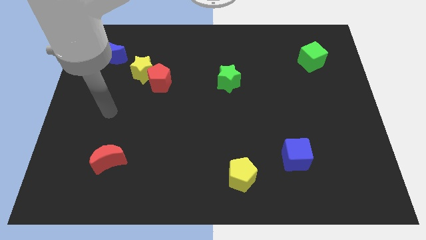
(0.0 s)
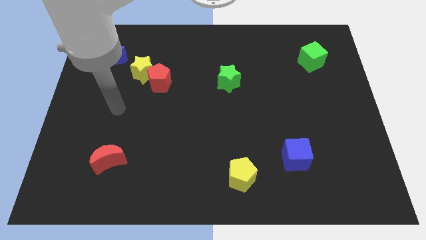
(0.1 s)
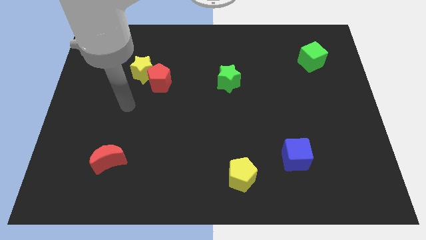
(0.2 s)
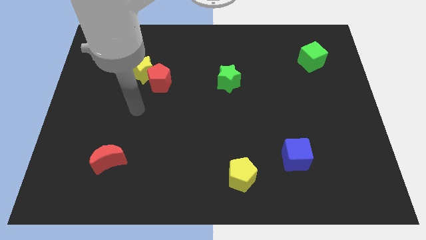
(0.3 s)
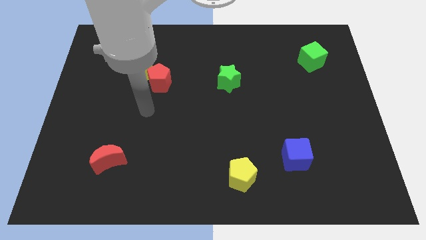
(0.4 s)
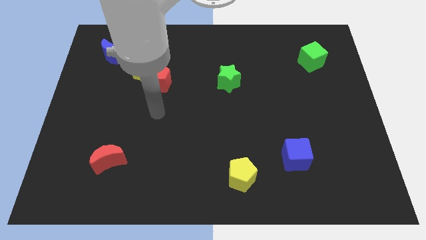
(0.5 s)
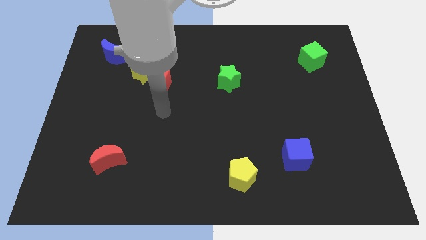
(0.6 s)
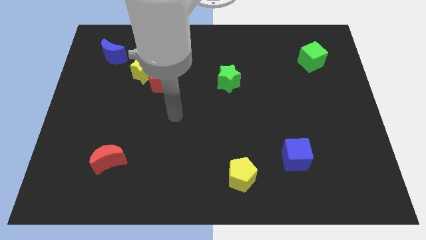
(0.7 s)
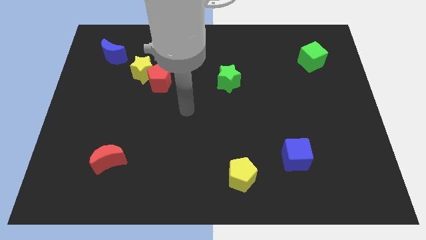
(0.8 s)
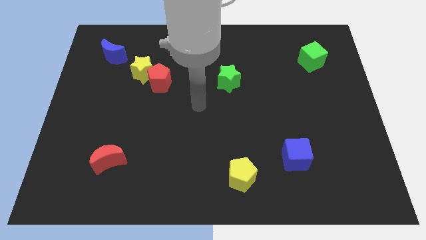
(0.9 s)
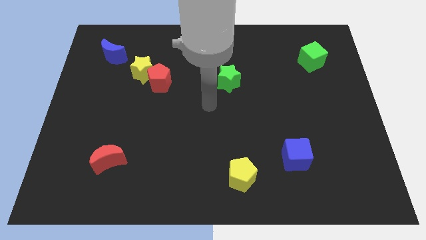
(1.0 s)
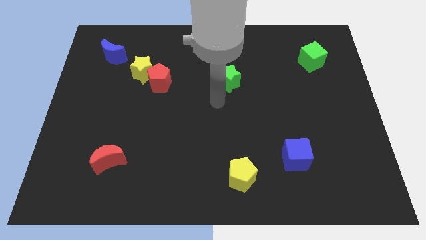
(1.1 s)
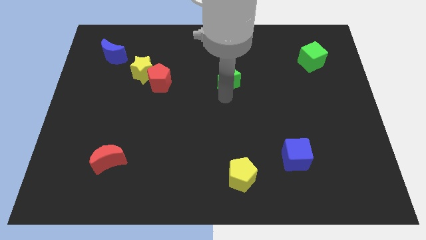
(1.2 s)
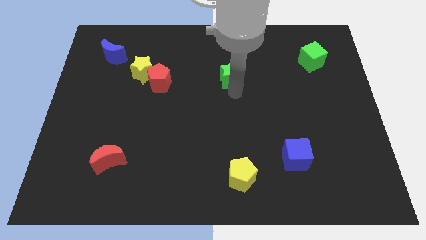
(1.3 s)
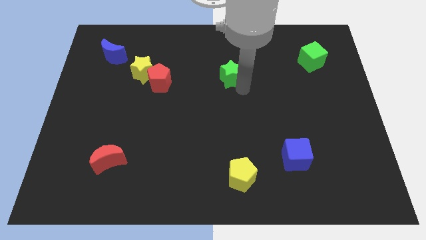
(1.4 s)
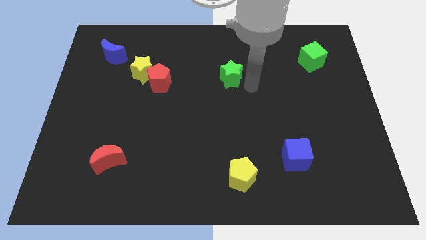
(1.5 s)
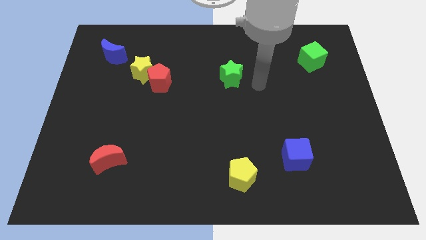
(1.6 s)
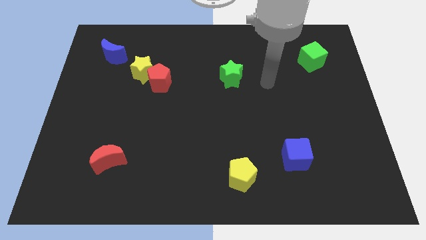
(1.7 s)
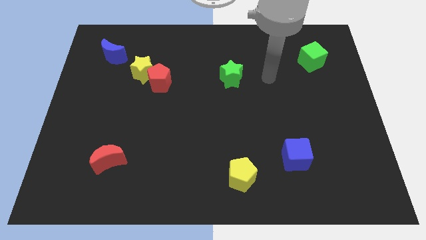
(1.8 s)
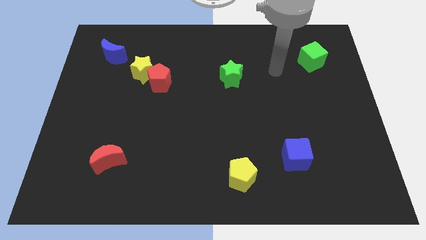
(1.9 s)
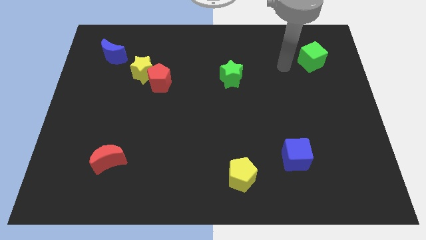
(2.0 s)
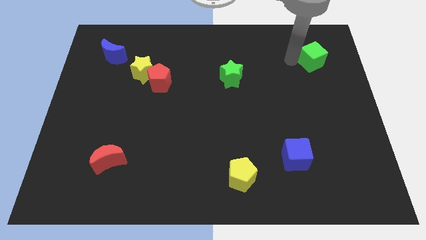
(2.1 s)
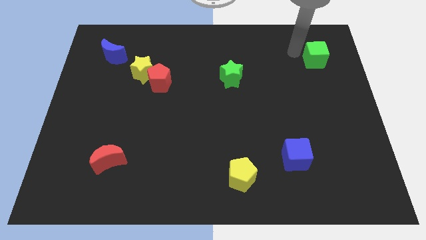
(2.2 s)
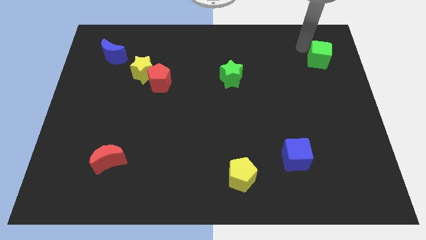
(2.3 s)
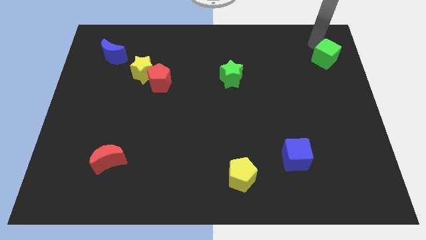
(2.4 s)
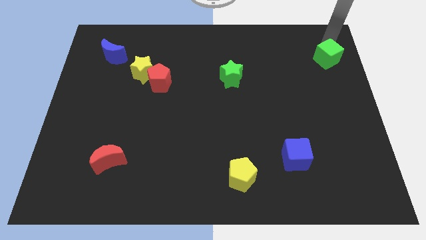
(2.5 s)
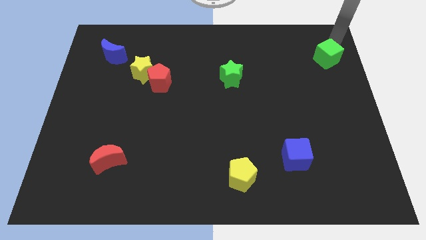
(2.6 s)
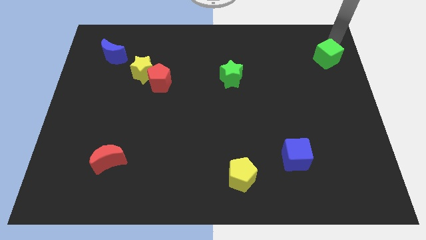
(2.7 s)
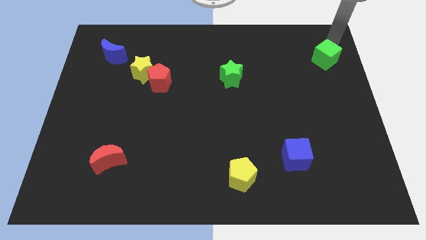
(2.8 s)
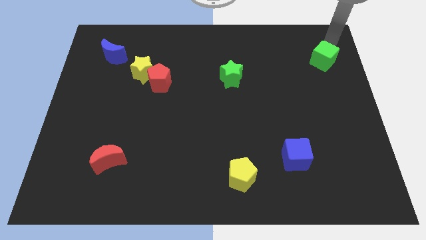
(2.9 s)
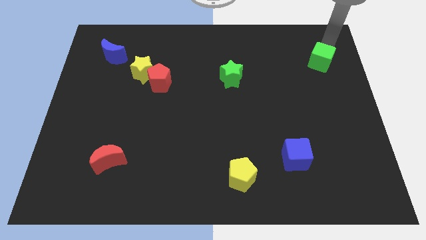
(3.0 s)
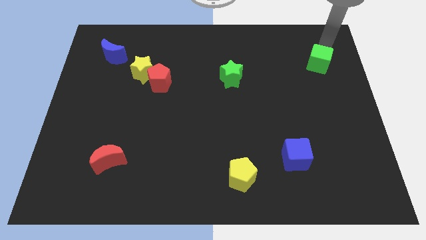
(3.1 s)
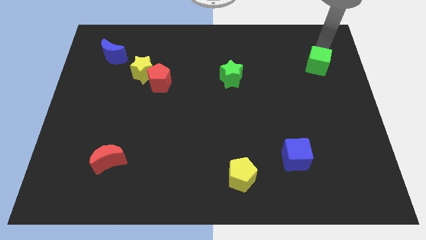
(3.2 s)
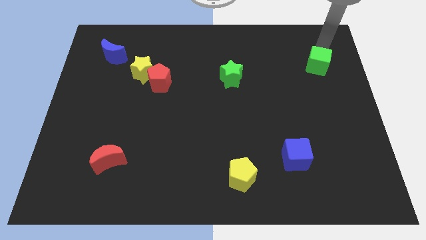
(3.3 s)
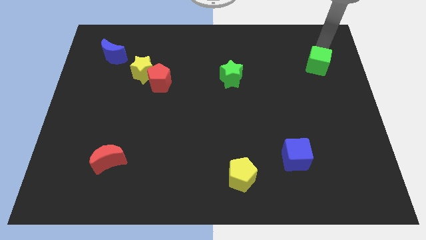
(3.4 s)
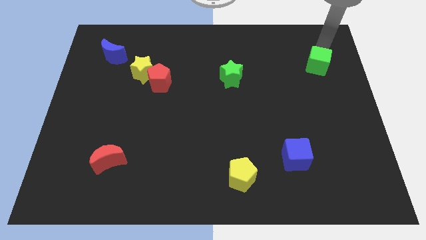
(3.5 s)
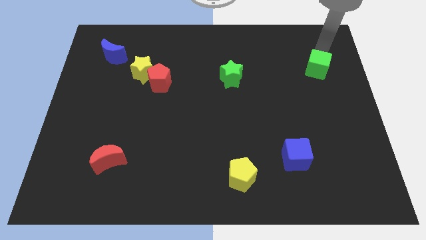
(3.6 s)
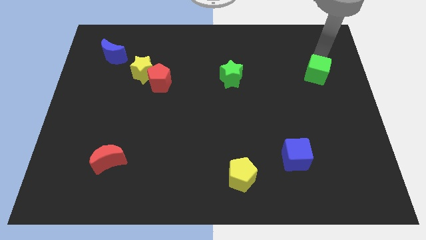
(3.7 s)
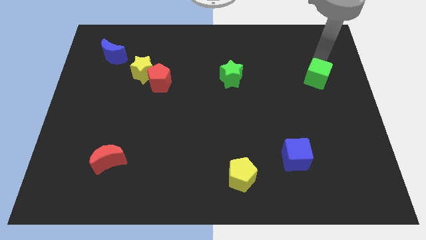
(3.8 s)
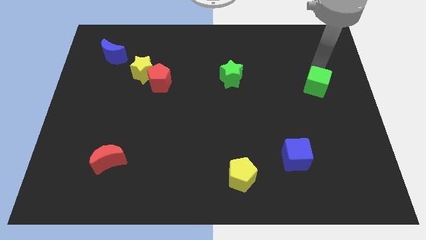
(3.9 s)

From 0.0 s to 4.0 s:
slide the green cube downwards slightly

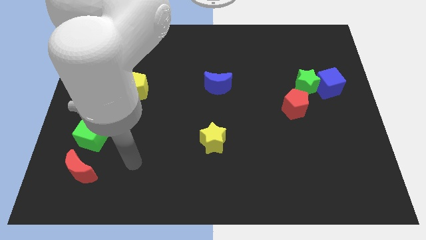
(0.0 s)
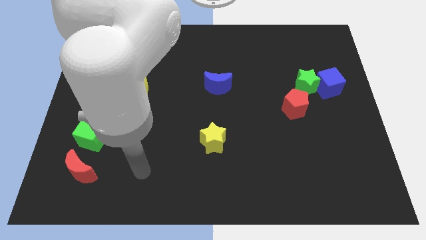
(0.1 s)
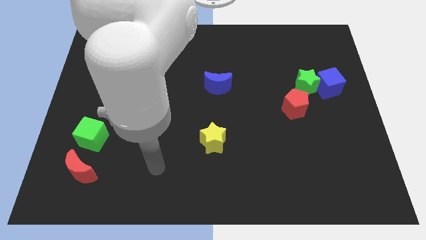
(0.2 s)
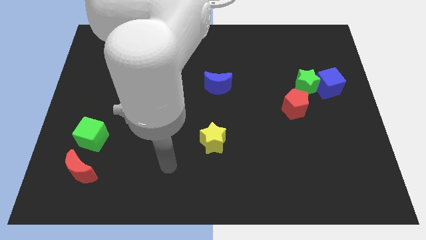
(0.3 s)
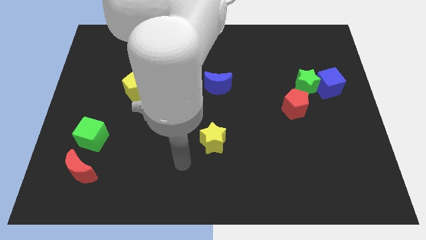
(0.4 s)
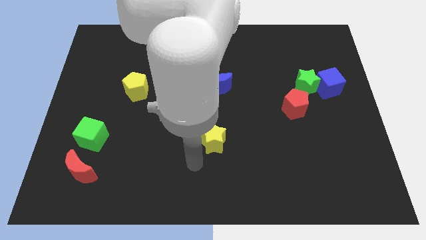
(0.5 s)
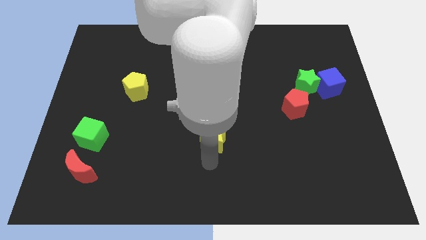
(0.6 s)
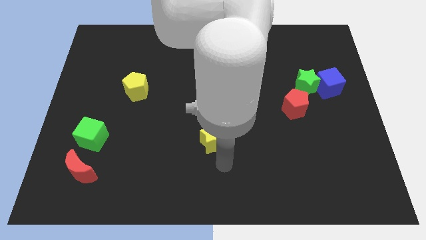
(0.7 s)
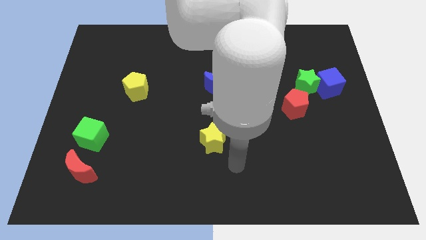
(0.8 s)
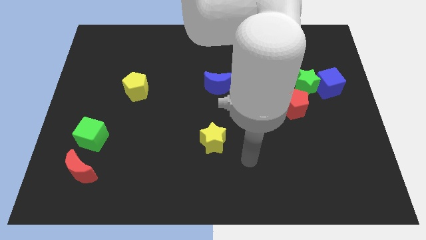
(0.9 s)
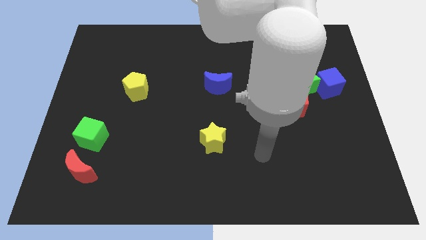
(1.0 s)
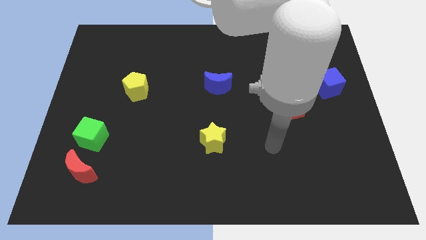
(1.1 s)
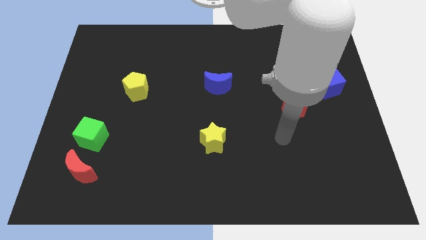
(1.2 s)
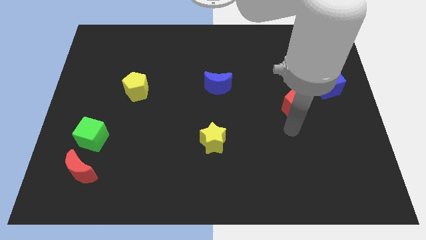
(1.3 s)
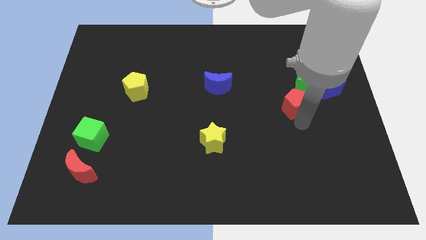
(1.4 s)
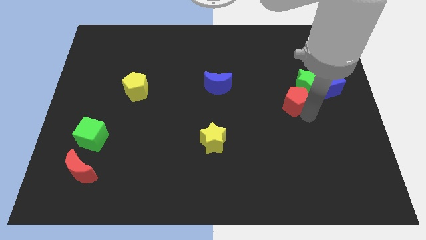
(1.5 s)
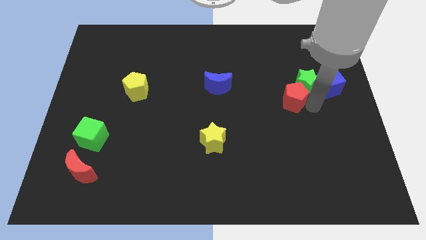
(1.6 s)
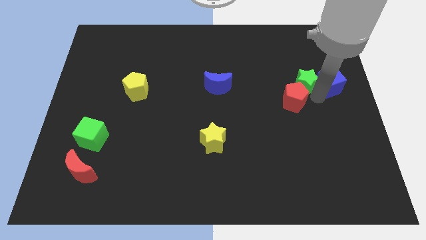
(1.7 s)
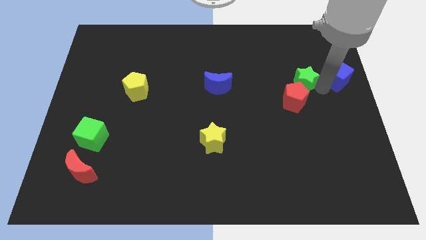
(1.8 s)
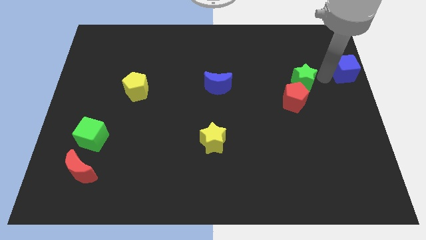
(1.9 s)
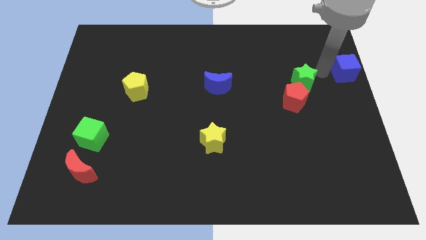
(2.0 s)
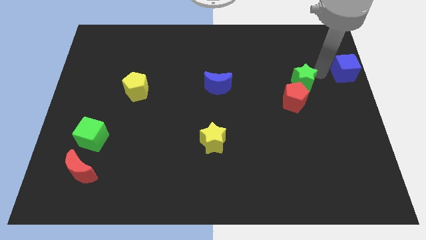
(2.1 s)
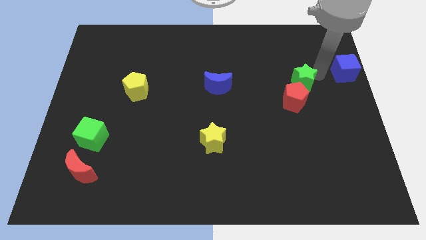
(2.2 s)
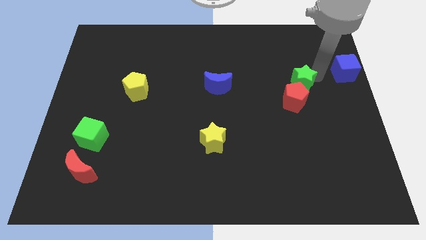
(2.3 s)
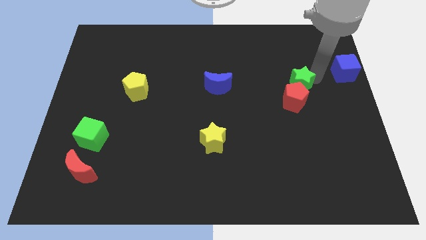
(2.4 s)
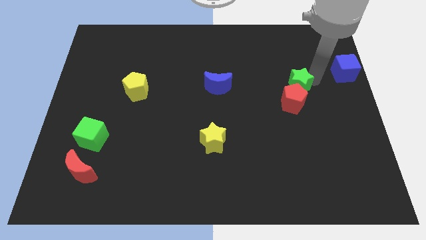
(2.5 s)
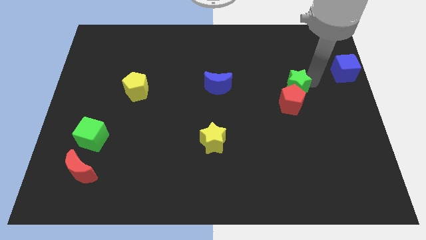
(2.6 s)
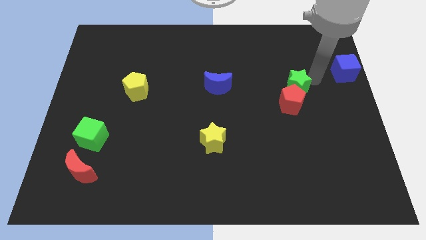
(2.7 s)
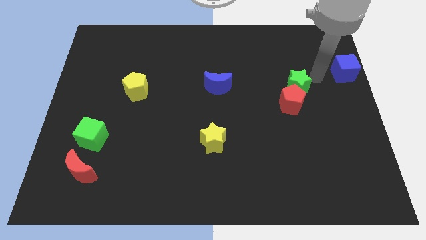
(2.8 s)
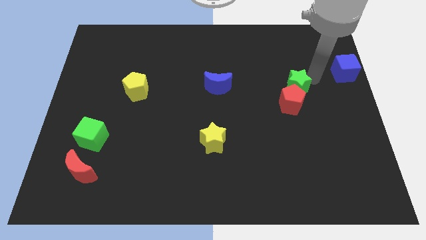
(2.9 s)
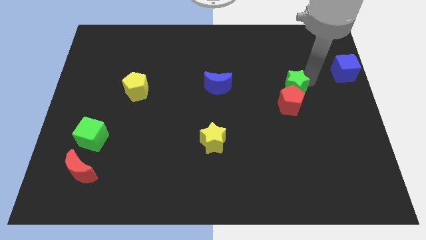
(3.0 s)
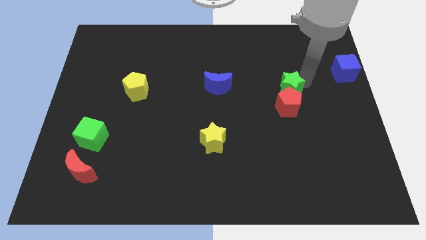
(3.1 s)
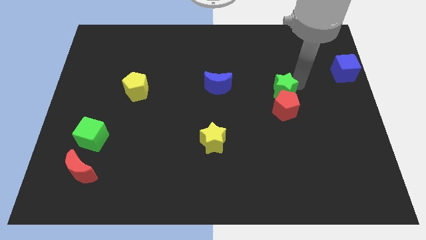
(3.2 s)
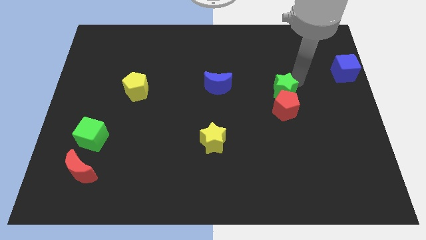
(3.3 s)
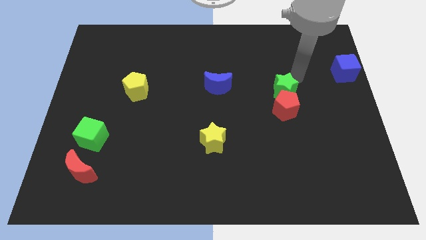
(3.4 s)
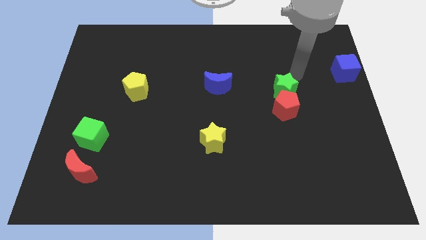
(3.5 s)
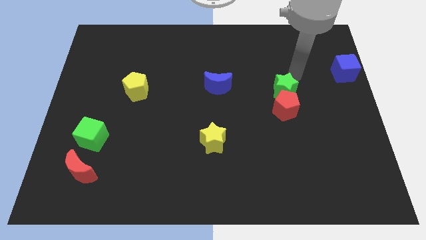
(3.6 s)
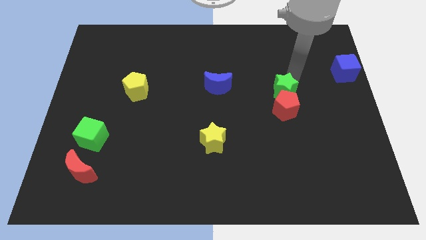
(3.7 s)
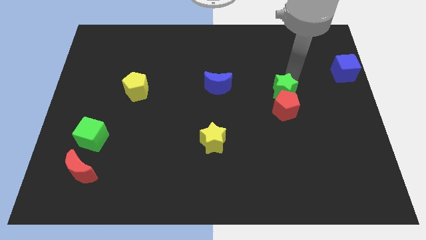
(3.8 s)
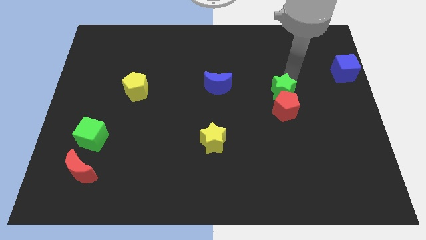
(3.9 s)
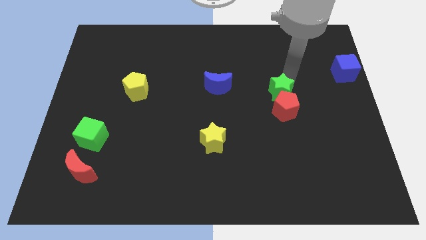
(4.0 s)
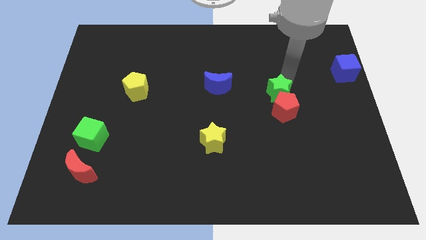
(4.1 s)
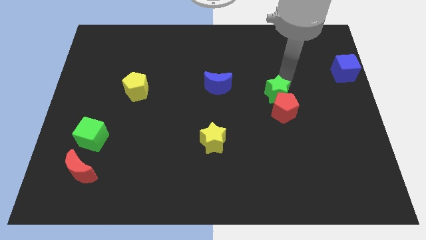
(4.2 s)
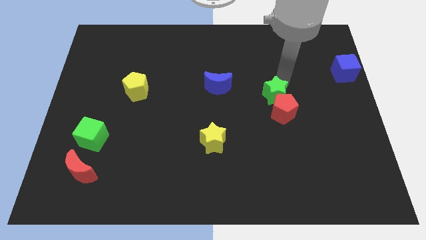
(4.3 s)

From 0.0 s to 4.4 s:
slightly slide the green star downwards and then to the left
